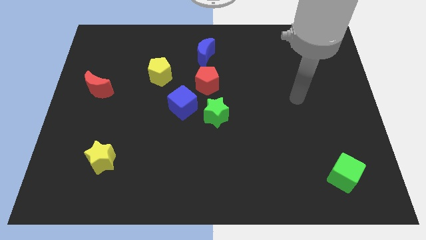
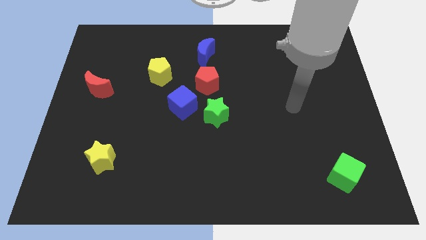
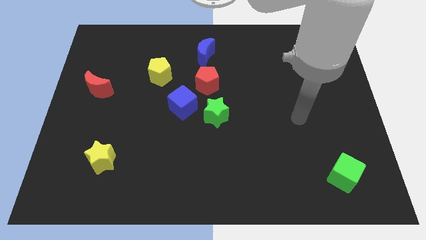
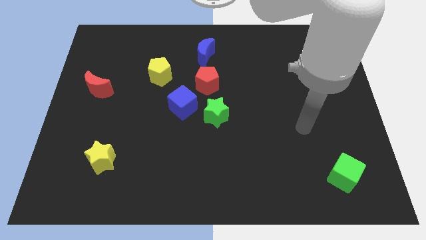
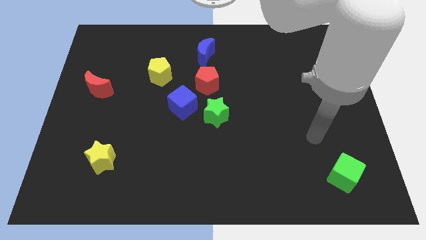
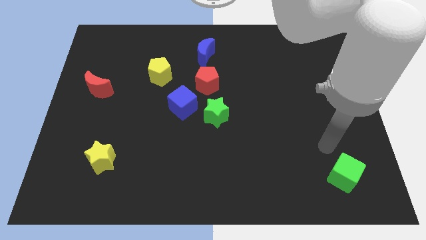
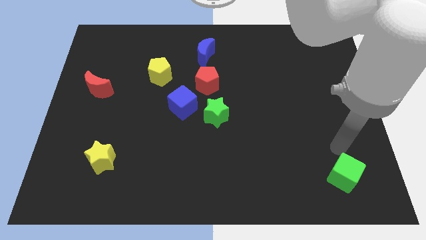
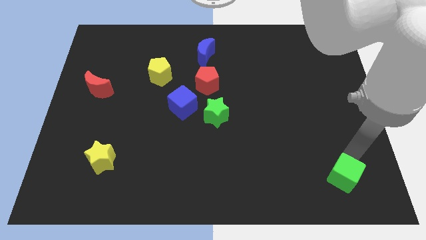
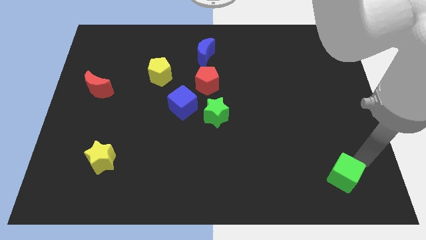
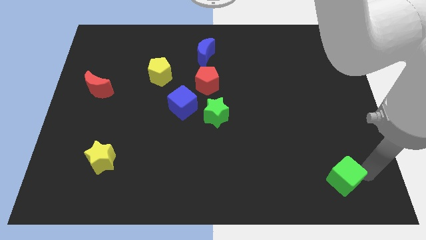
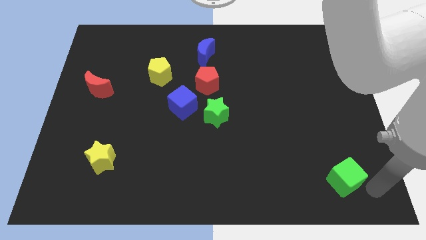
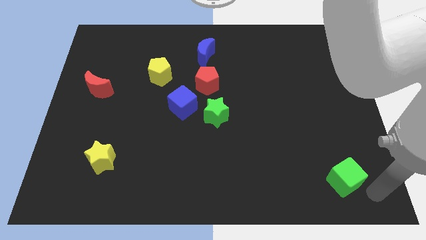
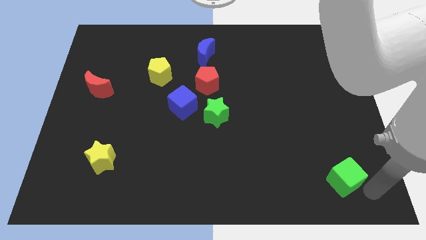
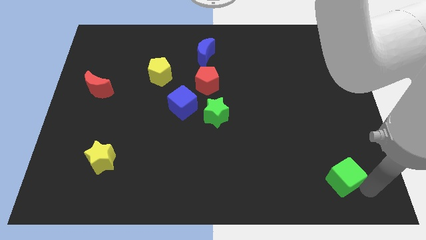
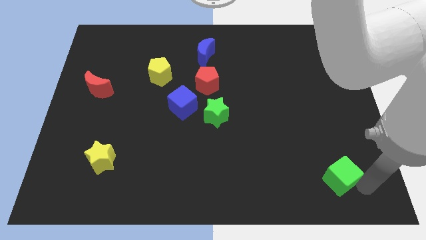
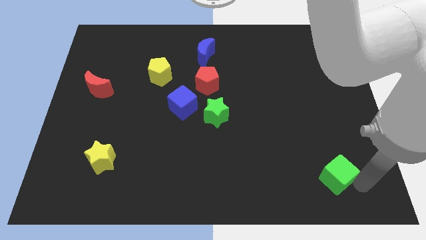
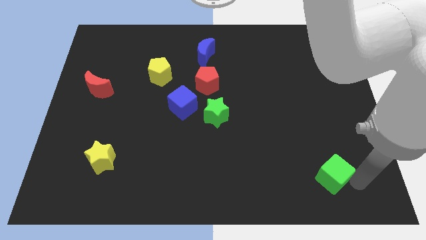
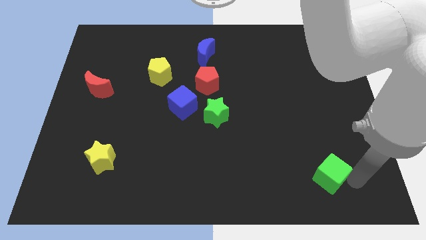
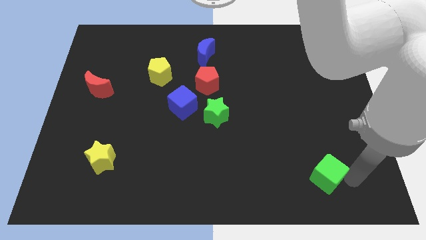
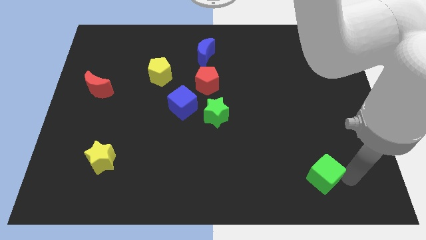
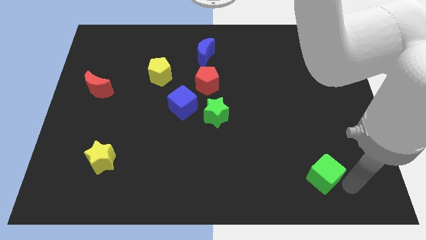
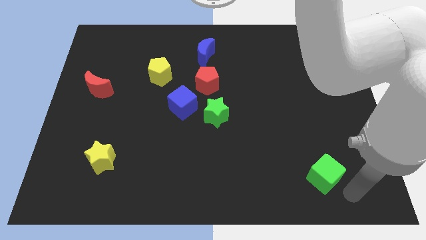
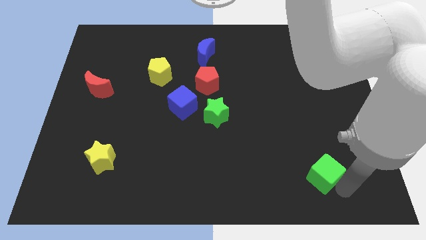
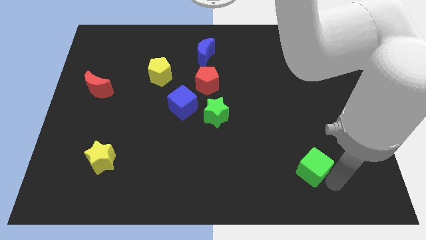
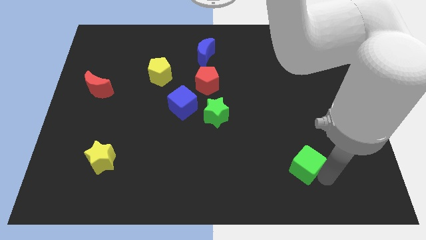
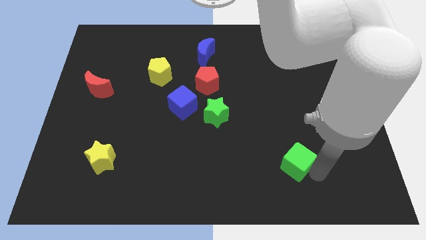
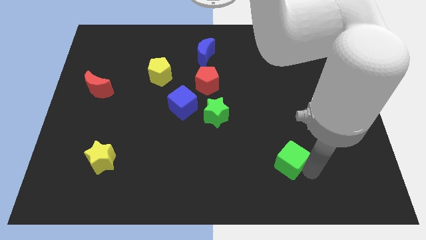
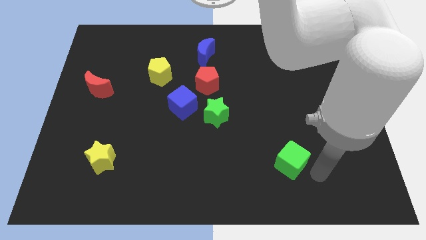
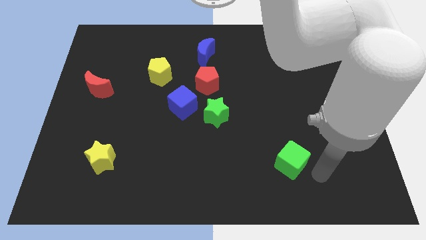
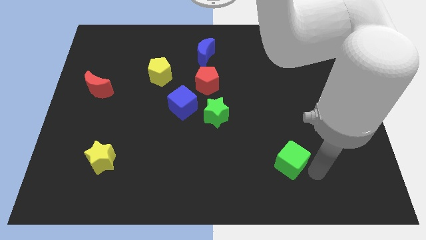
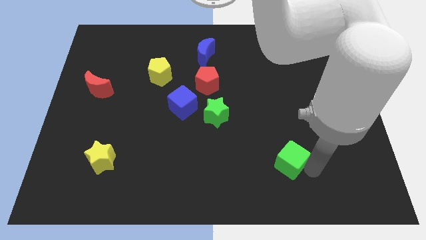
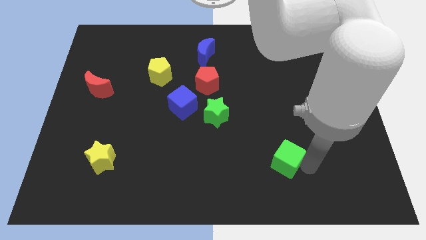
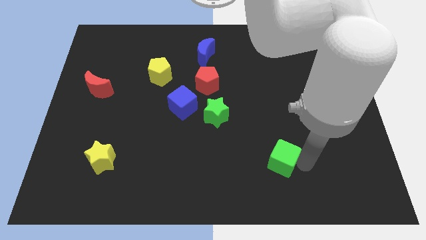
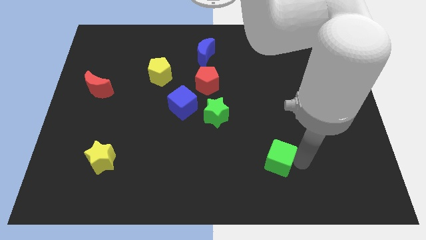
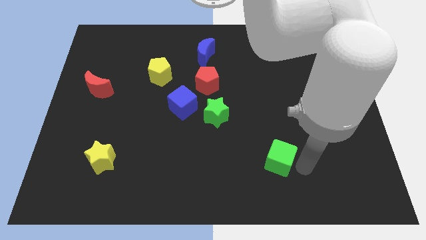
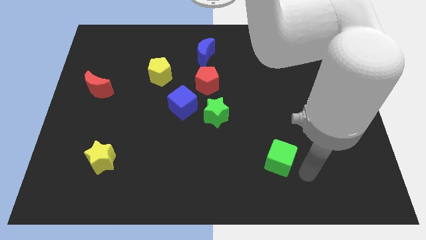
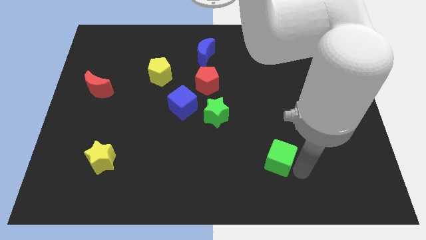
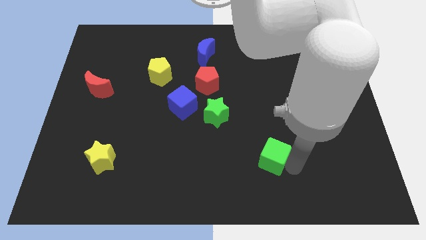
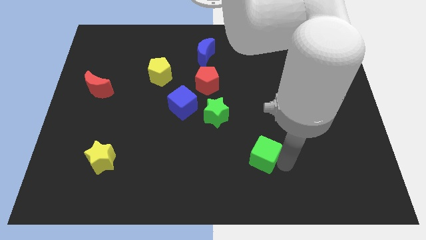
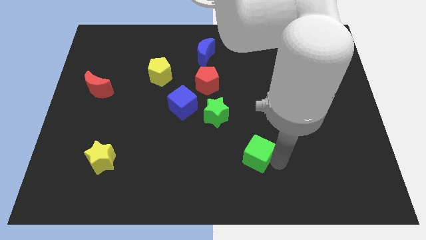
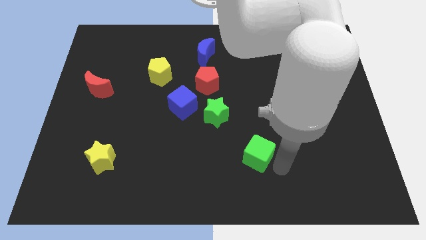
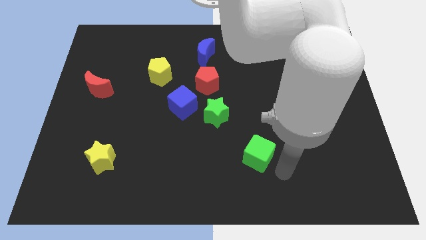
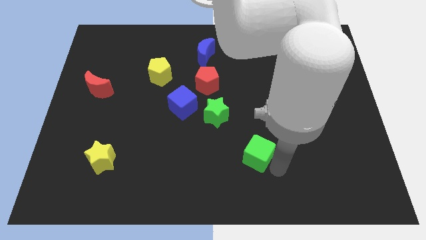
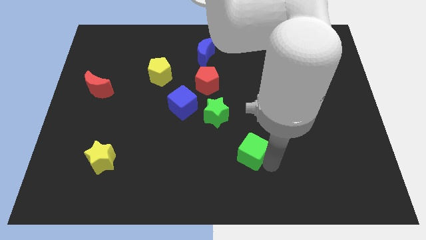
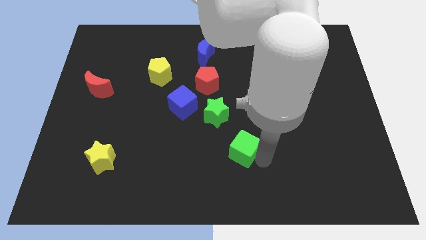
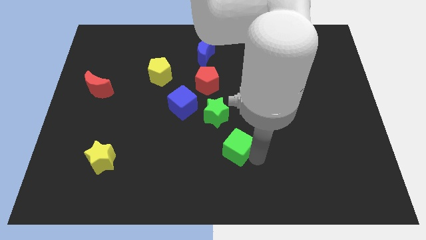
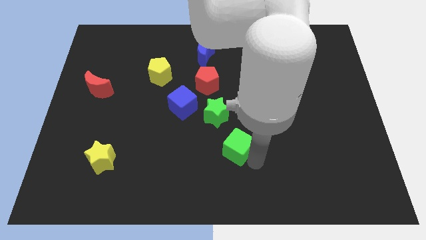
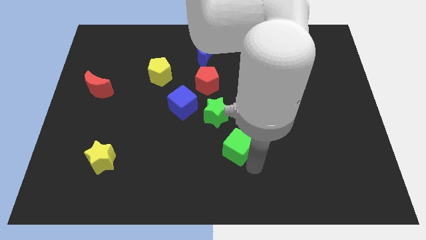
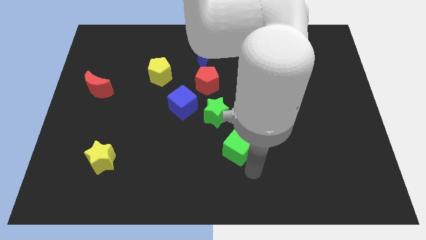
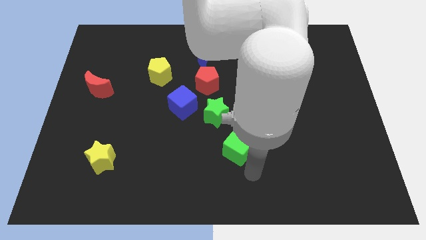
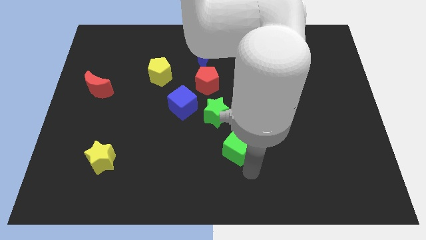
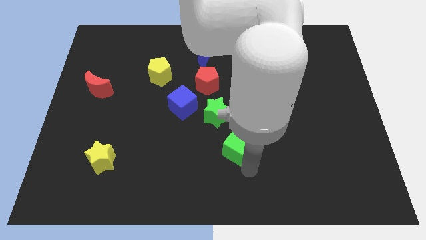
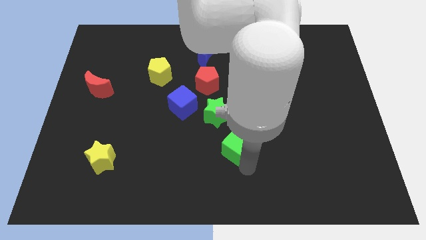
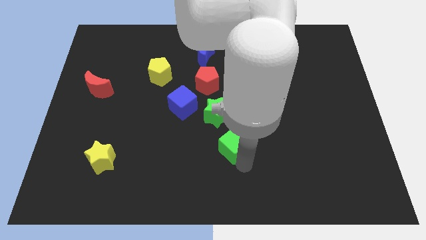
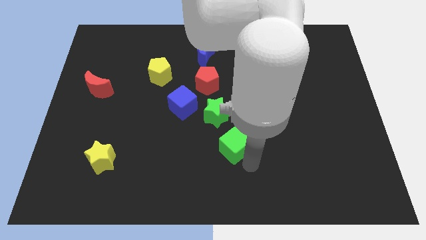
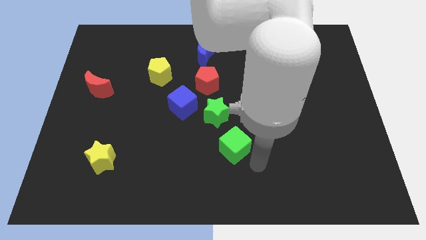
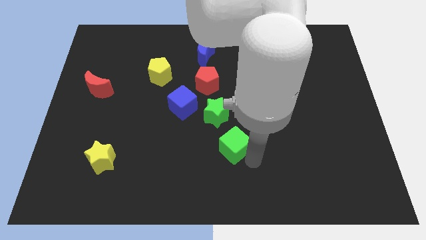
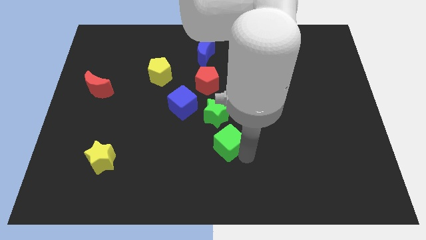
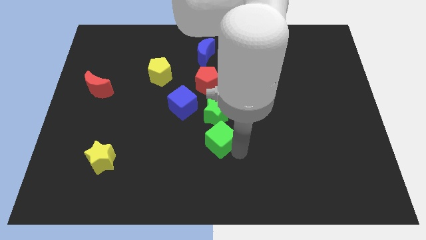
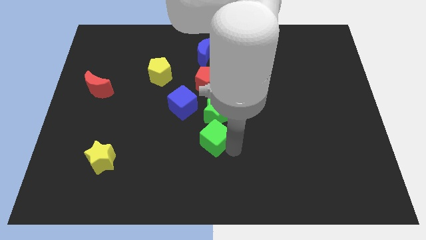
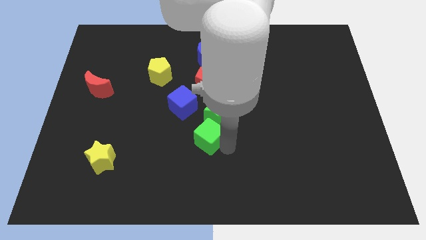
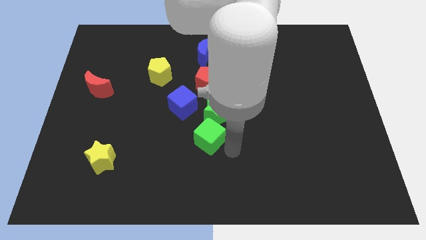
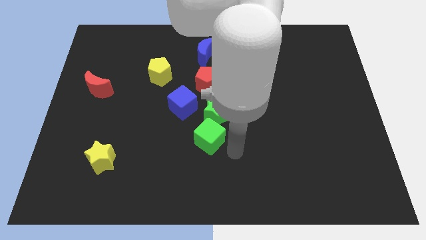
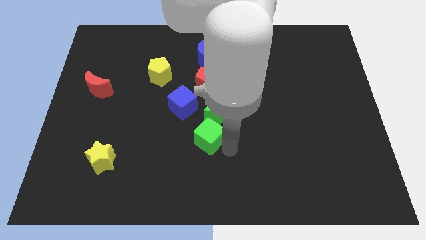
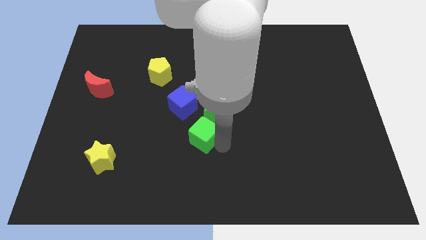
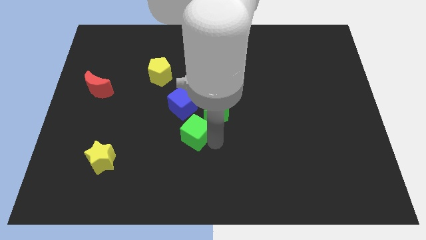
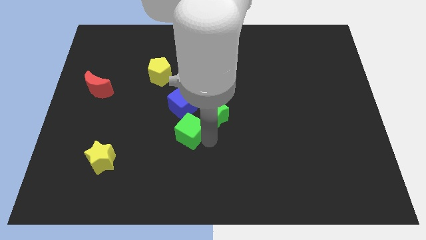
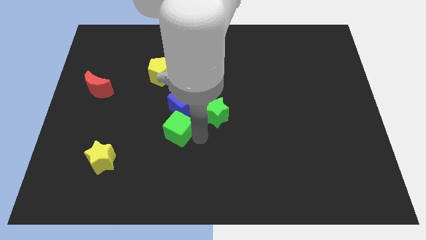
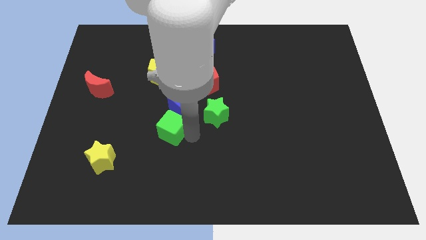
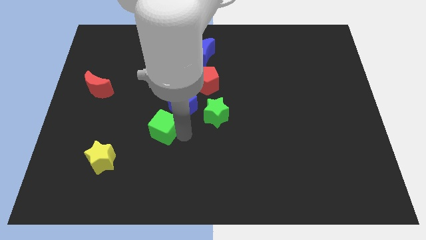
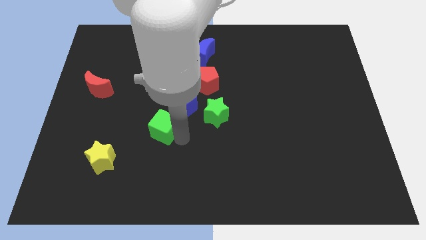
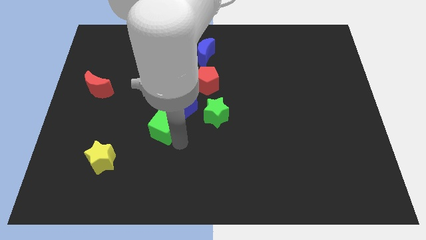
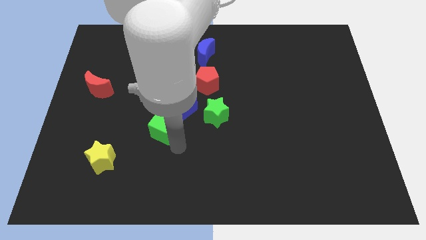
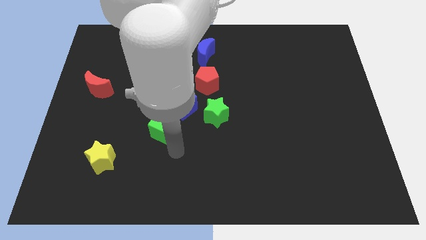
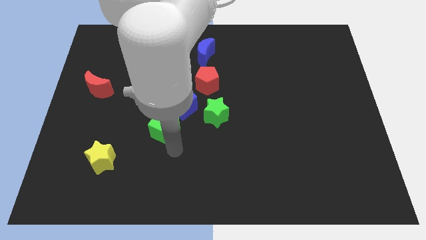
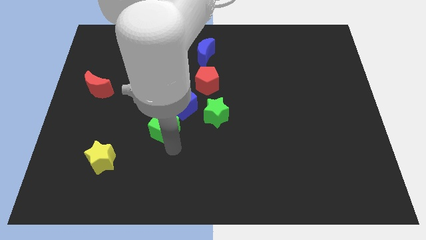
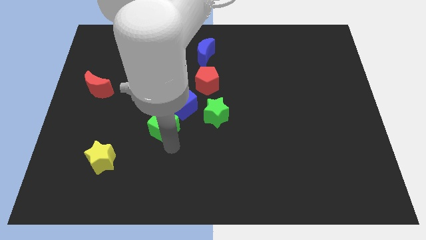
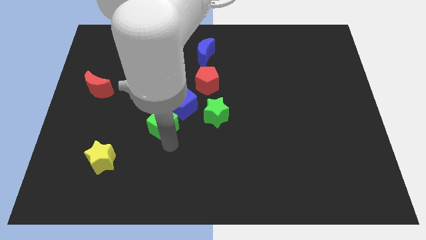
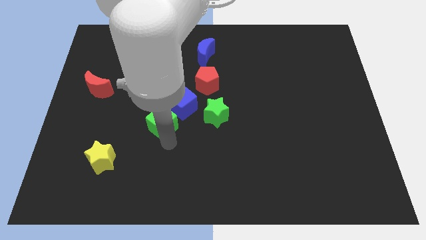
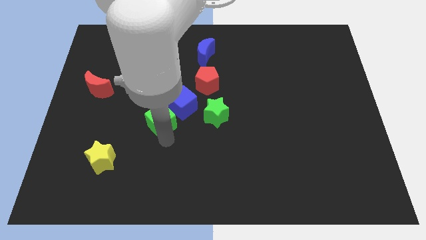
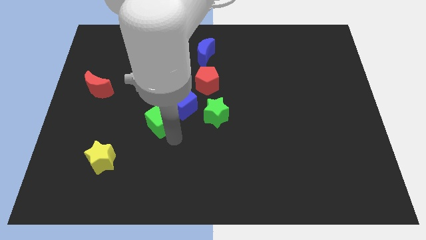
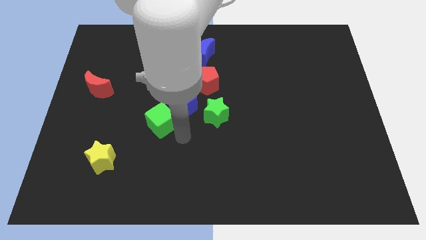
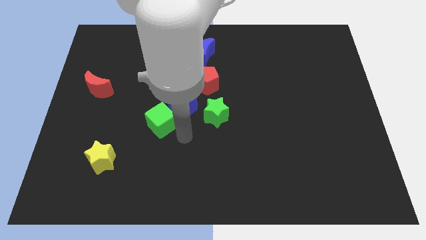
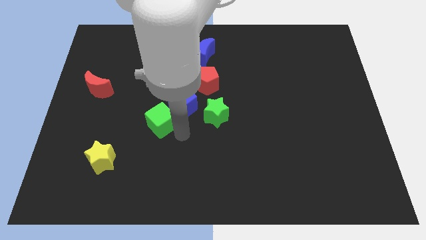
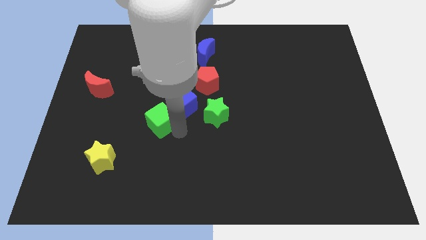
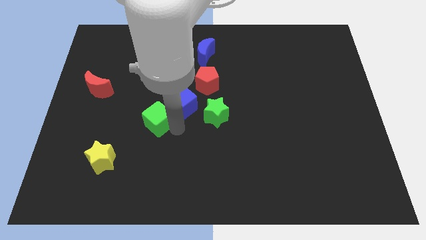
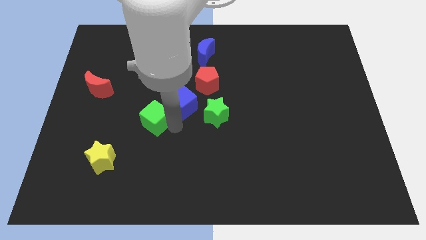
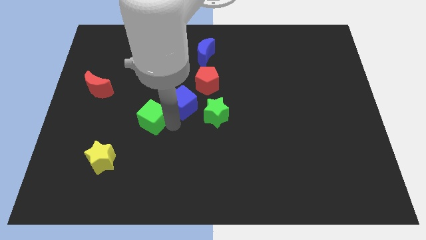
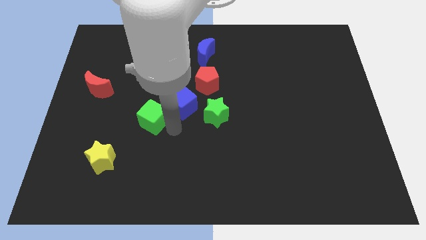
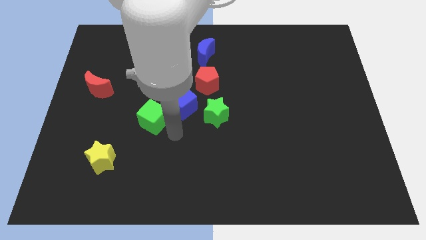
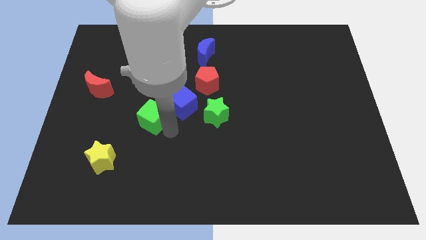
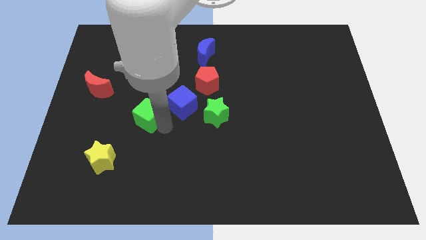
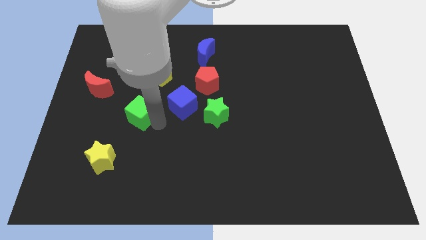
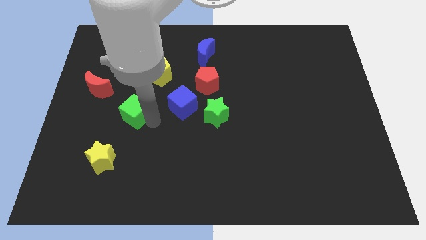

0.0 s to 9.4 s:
push the green cube to the bottom right of the red moon
